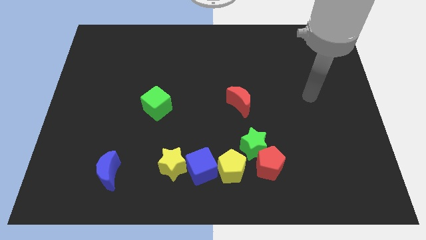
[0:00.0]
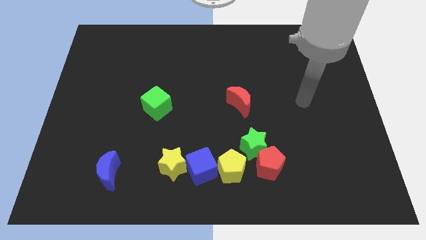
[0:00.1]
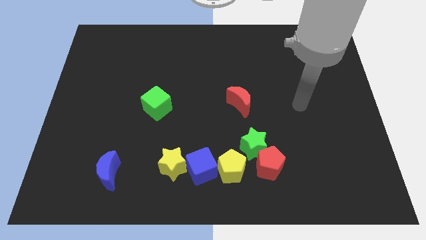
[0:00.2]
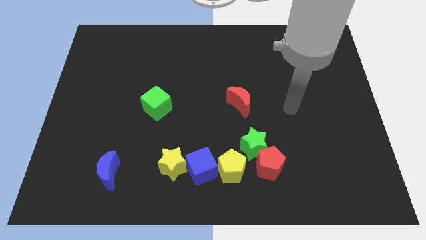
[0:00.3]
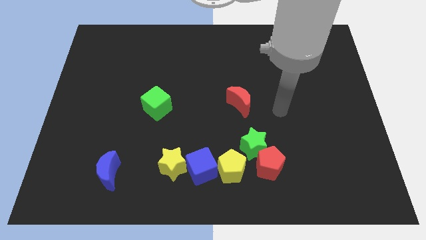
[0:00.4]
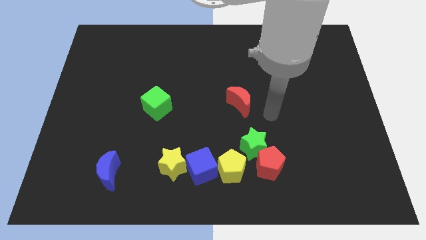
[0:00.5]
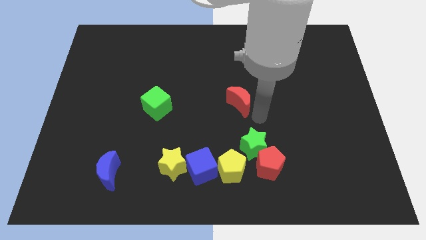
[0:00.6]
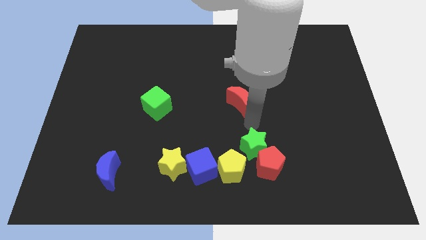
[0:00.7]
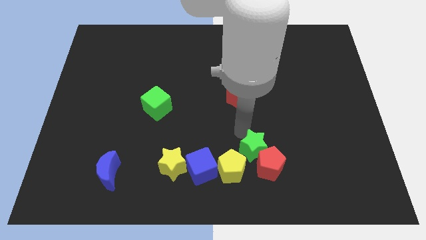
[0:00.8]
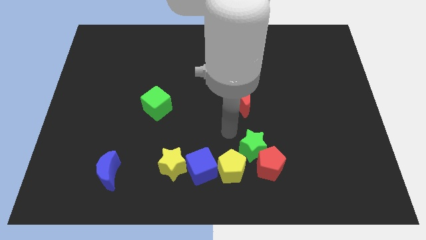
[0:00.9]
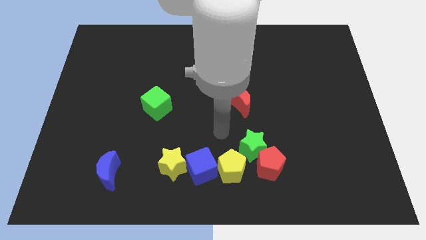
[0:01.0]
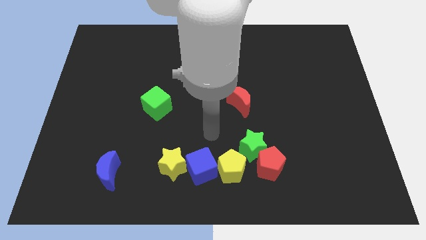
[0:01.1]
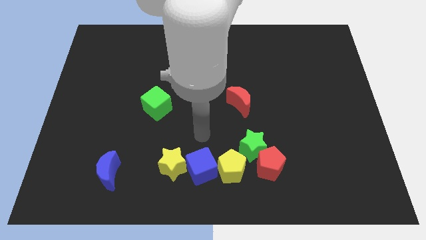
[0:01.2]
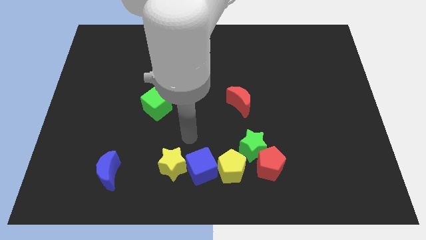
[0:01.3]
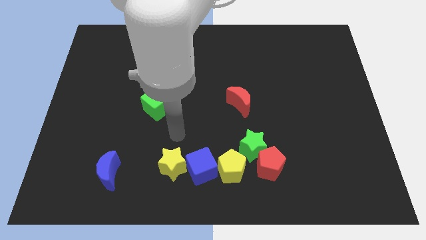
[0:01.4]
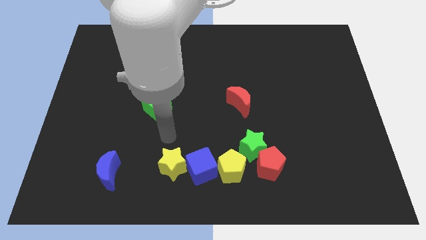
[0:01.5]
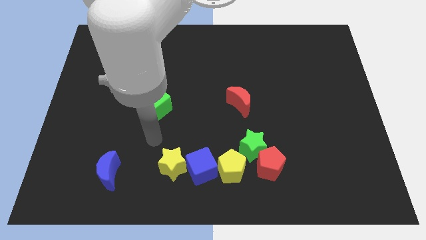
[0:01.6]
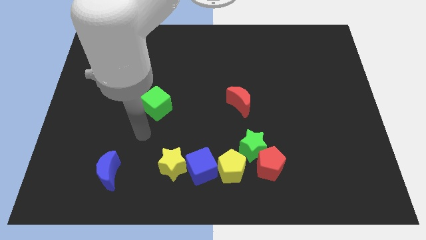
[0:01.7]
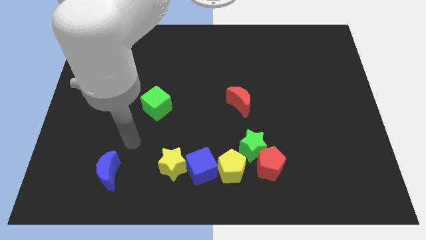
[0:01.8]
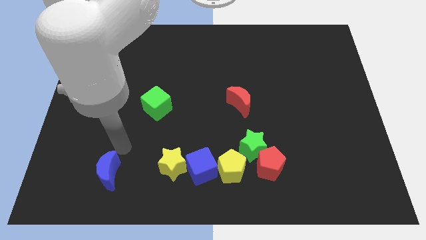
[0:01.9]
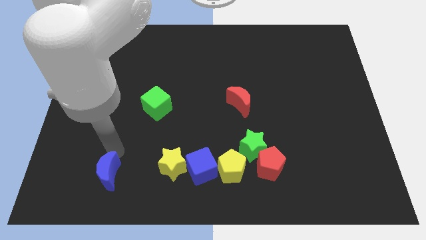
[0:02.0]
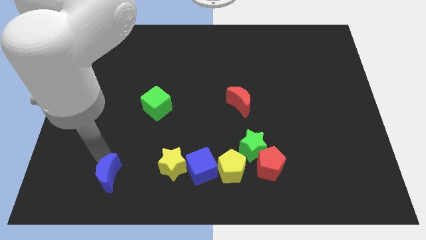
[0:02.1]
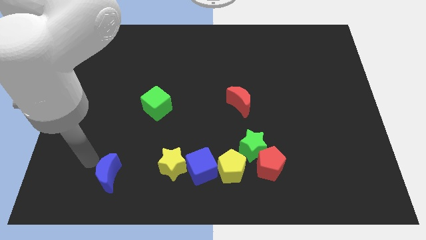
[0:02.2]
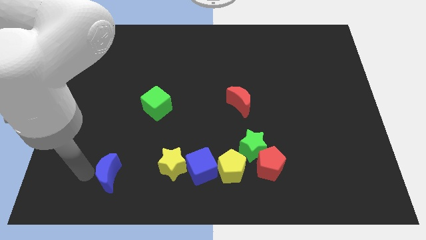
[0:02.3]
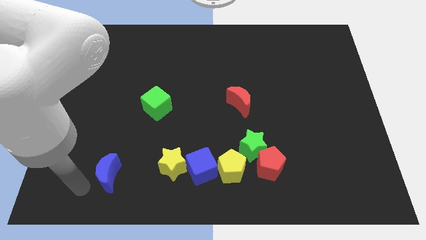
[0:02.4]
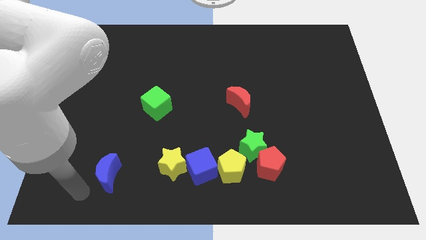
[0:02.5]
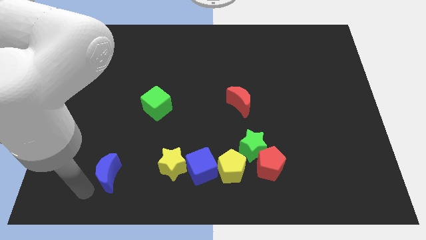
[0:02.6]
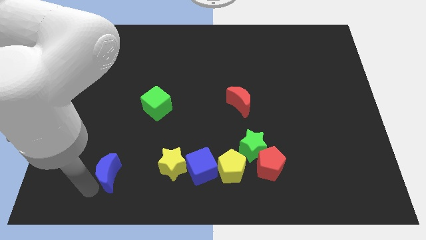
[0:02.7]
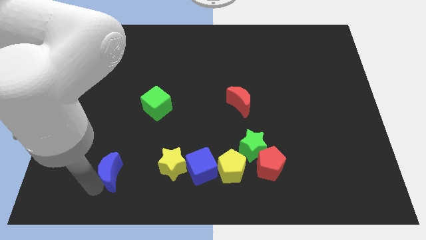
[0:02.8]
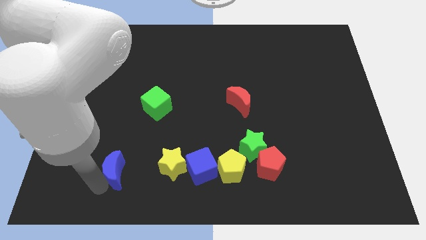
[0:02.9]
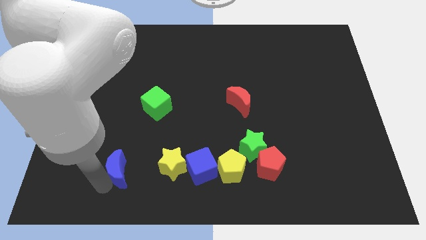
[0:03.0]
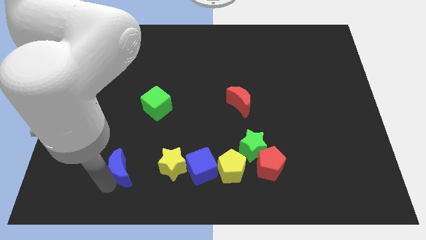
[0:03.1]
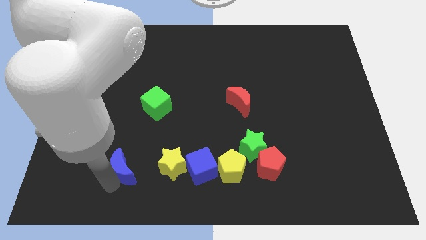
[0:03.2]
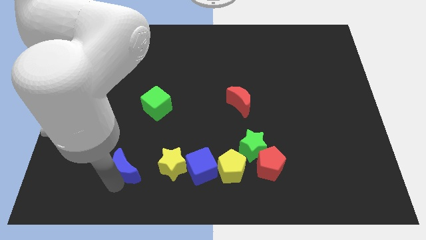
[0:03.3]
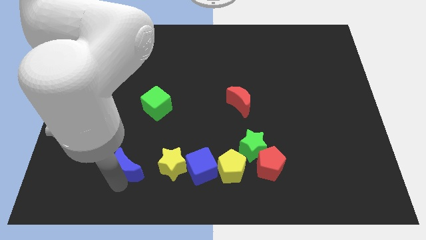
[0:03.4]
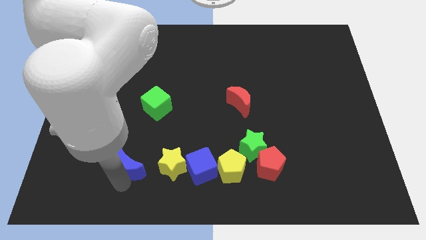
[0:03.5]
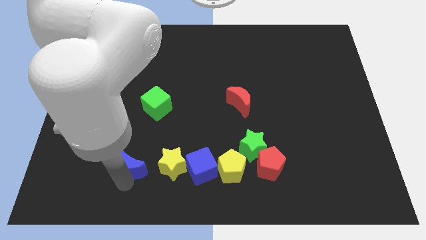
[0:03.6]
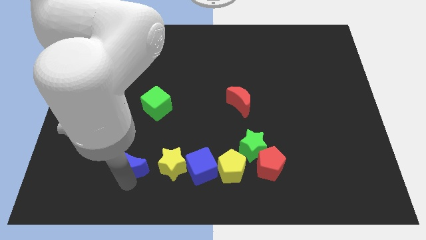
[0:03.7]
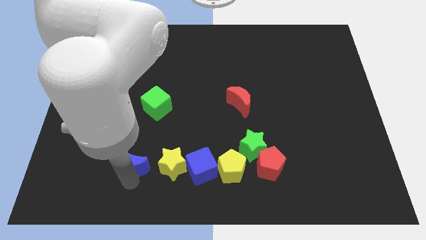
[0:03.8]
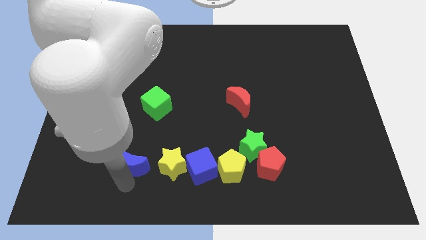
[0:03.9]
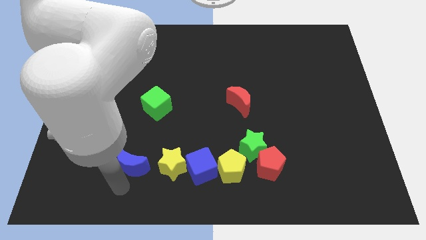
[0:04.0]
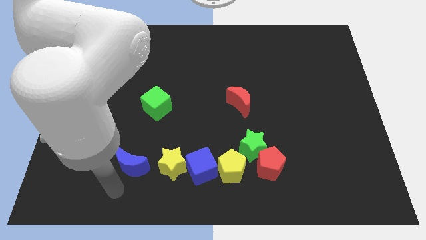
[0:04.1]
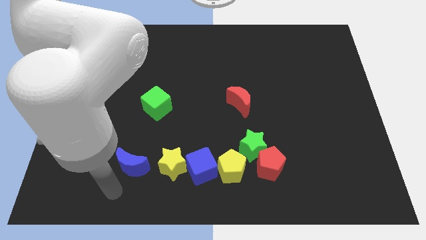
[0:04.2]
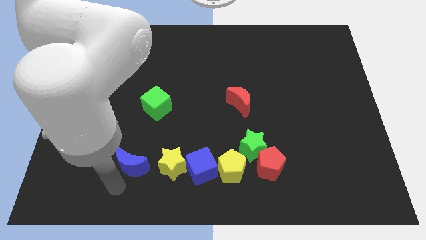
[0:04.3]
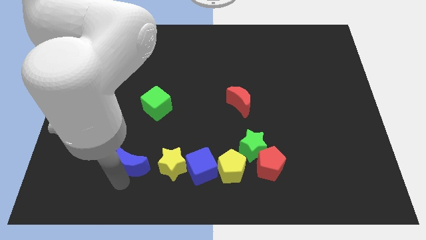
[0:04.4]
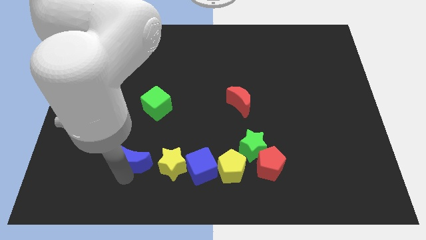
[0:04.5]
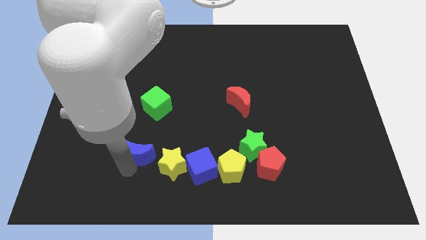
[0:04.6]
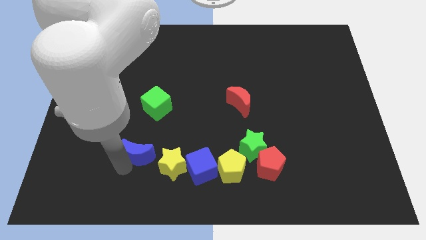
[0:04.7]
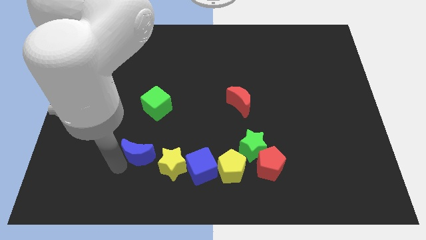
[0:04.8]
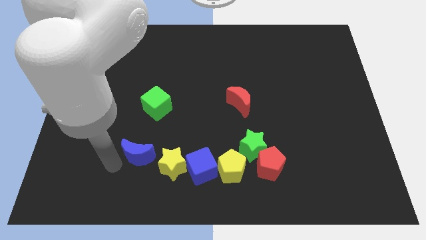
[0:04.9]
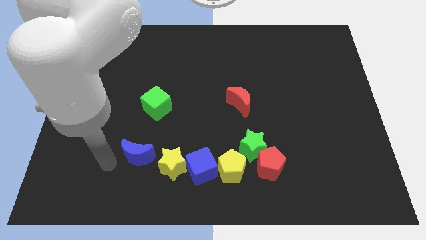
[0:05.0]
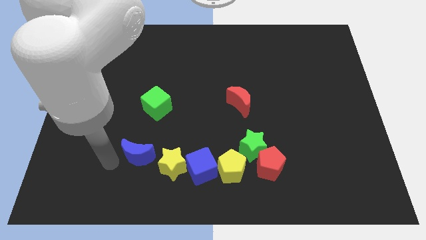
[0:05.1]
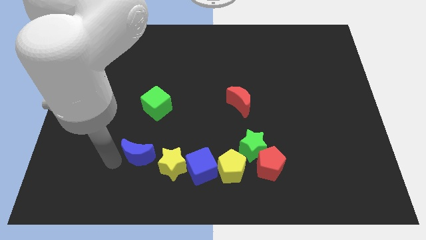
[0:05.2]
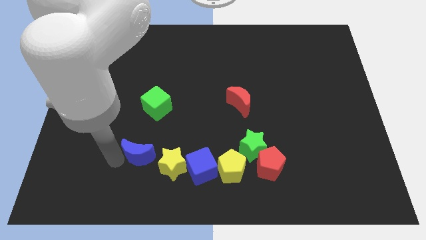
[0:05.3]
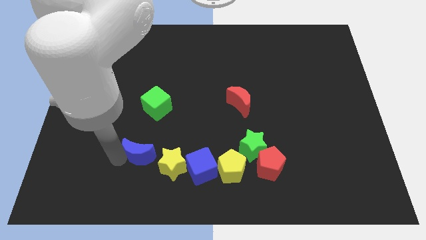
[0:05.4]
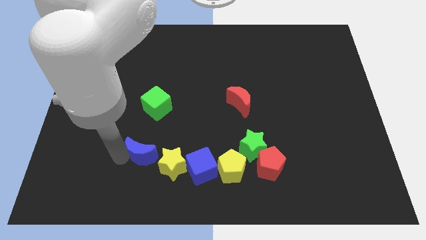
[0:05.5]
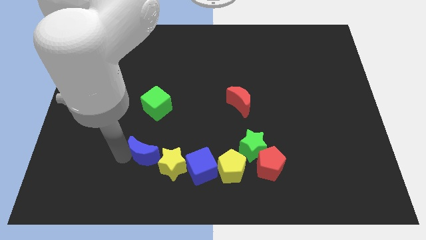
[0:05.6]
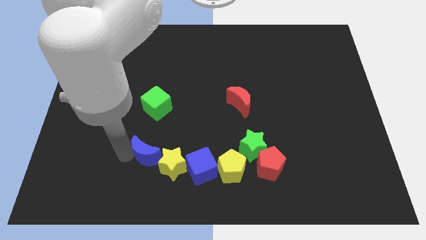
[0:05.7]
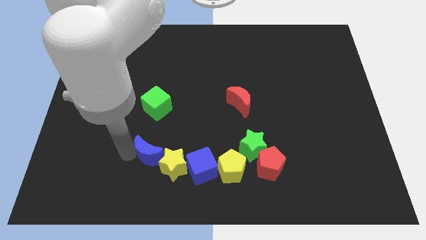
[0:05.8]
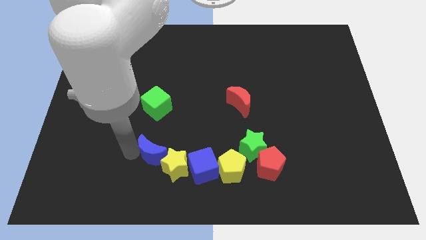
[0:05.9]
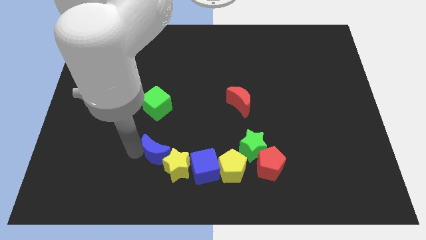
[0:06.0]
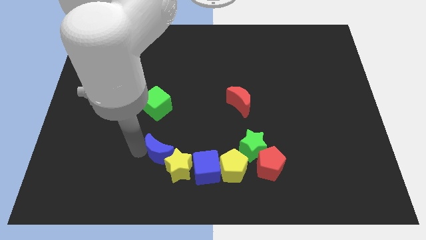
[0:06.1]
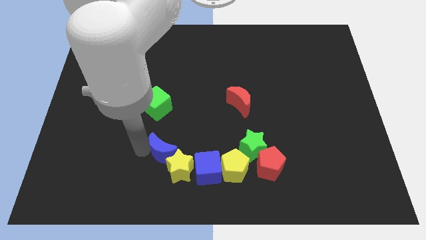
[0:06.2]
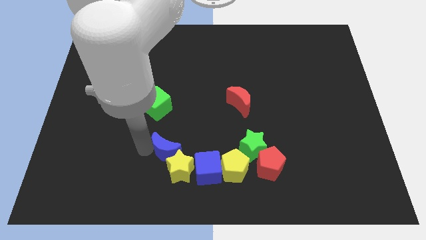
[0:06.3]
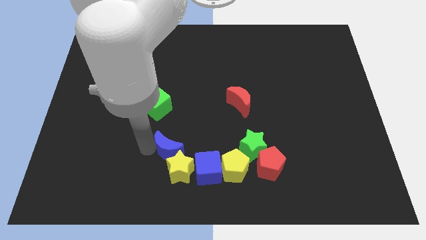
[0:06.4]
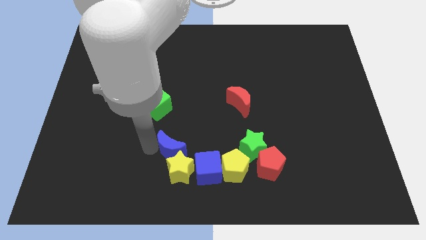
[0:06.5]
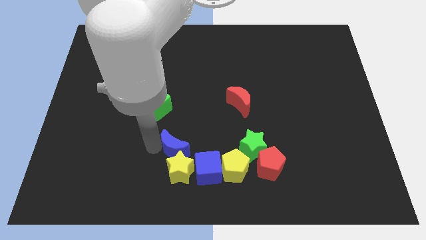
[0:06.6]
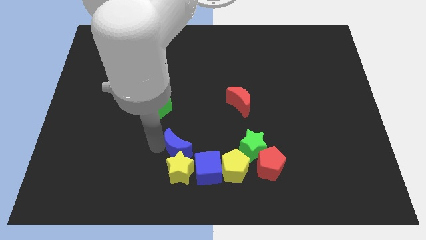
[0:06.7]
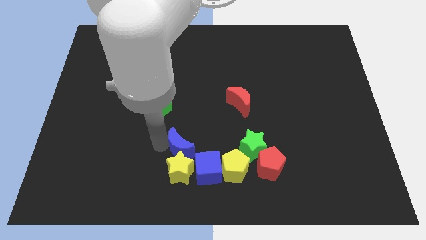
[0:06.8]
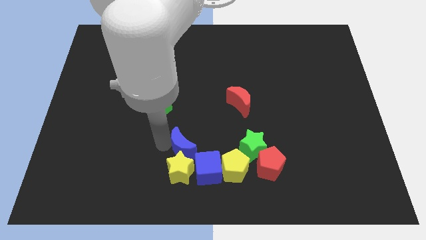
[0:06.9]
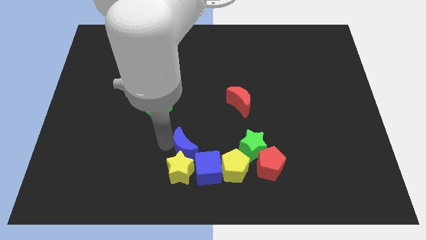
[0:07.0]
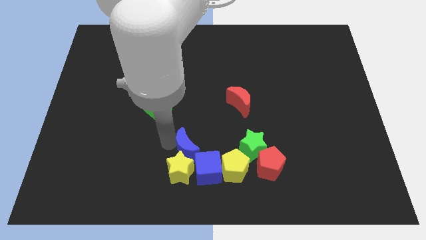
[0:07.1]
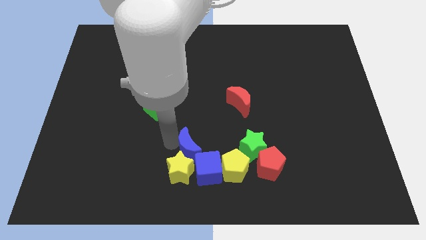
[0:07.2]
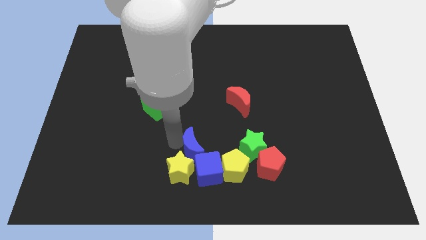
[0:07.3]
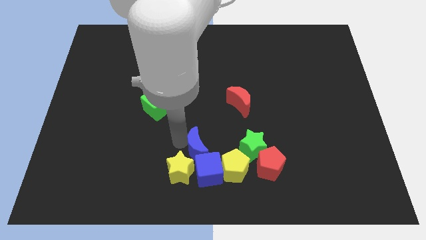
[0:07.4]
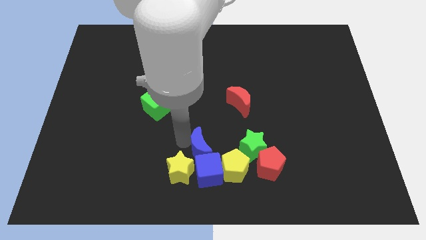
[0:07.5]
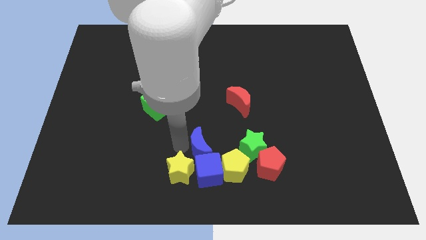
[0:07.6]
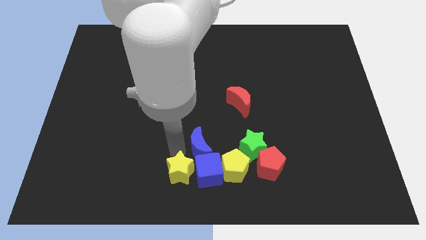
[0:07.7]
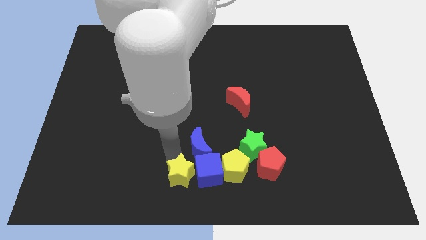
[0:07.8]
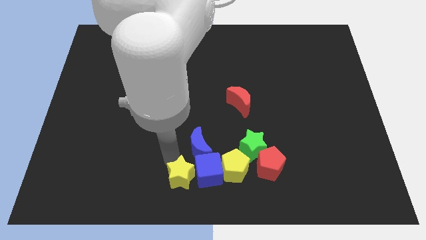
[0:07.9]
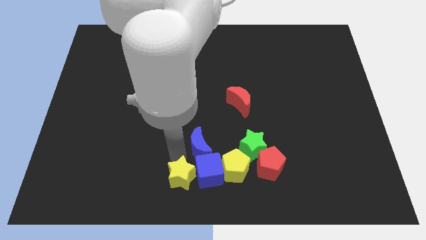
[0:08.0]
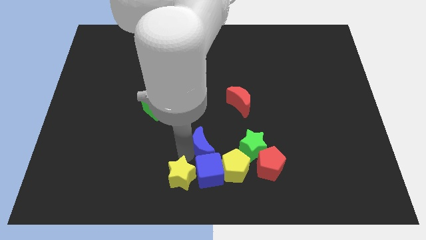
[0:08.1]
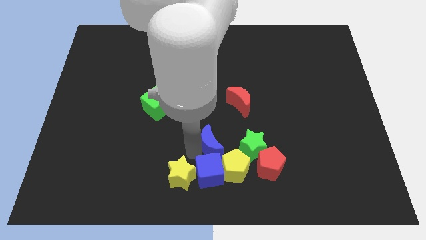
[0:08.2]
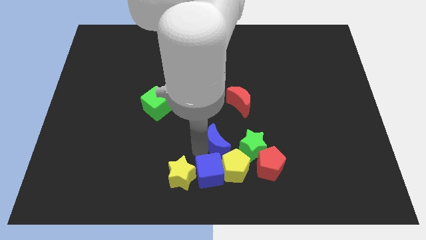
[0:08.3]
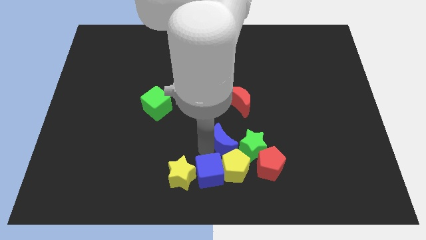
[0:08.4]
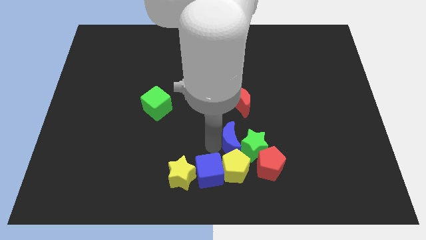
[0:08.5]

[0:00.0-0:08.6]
slide the blue moon next to the green star
